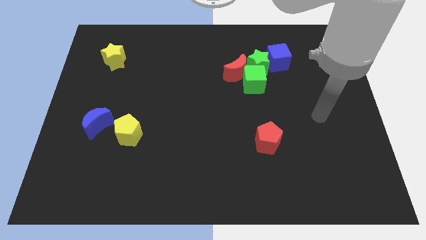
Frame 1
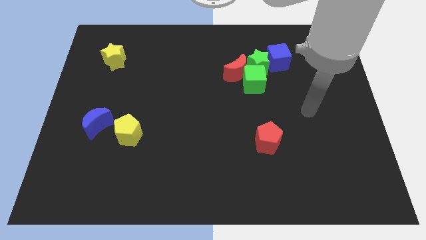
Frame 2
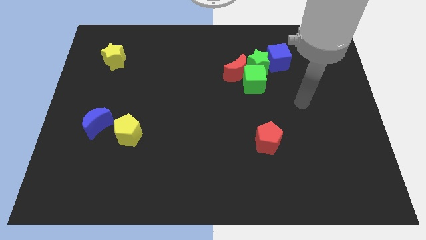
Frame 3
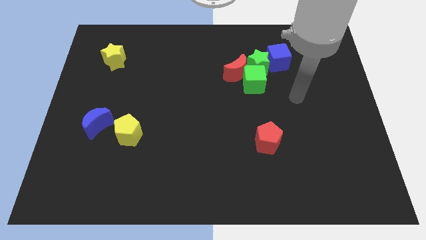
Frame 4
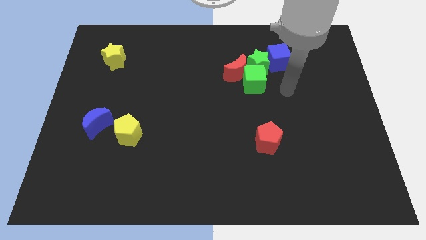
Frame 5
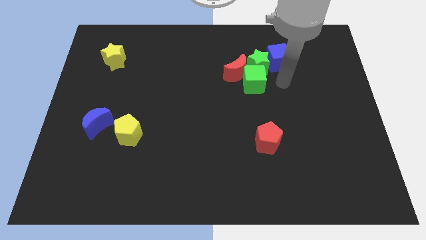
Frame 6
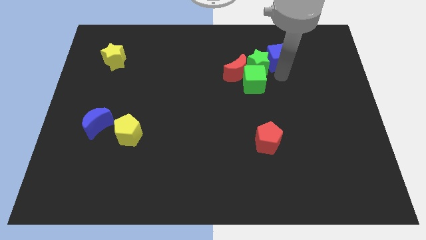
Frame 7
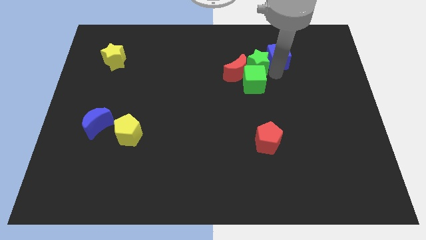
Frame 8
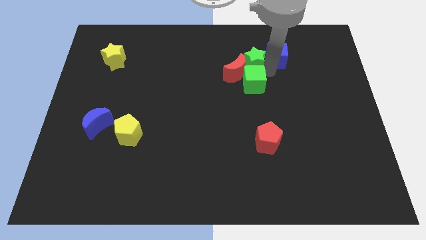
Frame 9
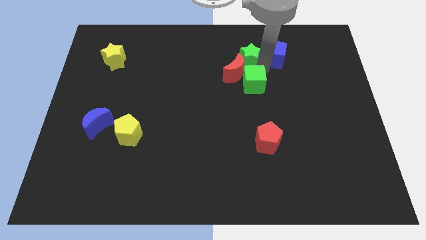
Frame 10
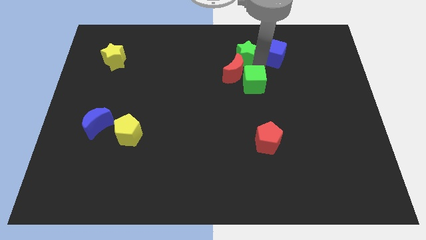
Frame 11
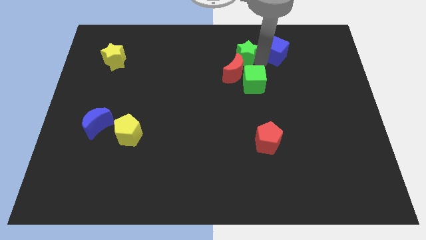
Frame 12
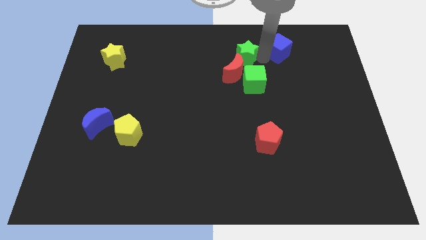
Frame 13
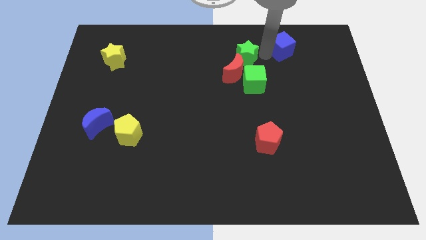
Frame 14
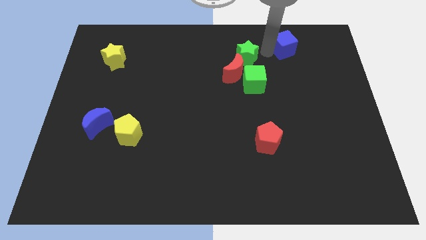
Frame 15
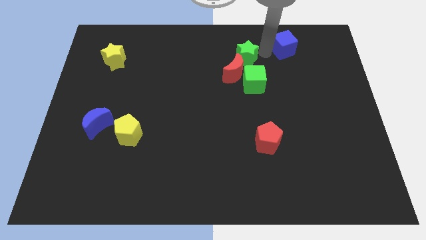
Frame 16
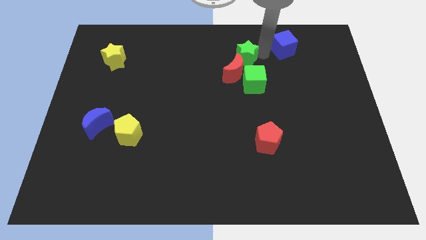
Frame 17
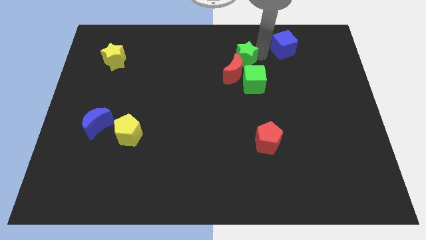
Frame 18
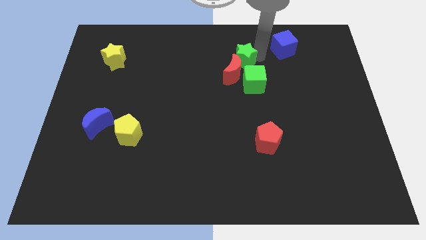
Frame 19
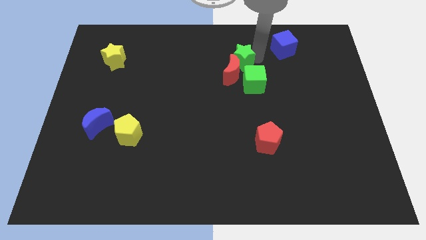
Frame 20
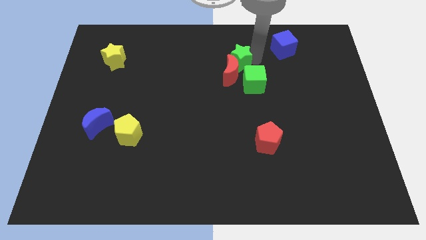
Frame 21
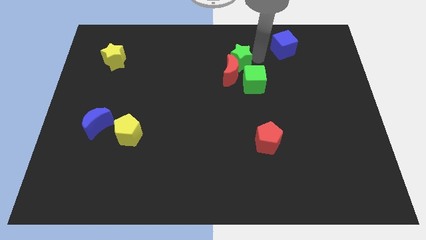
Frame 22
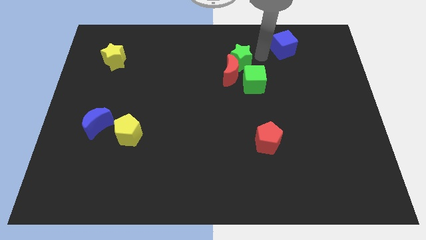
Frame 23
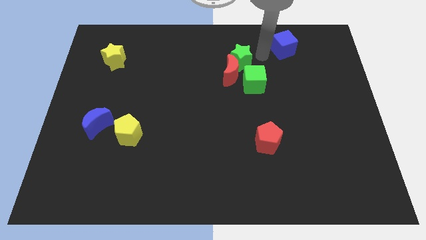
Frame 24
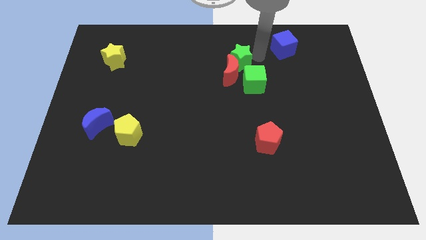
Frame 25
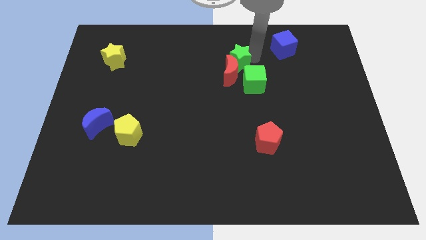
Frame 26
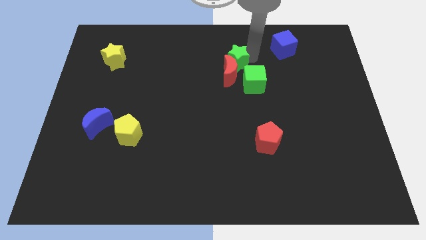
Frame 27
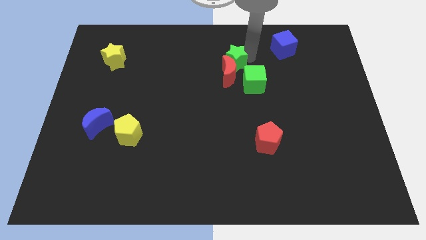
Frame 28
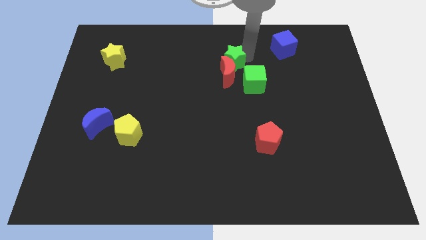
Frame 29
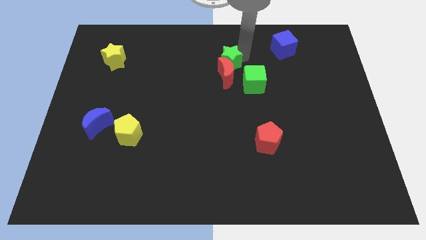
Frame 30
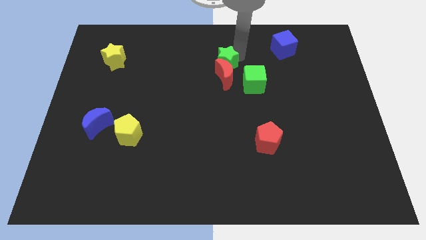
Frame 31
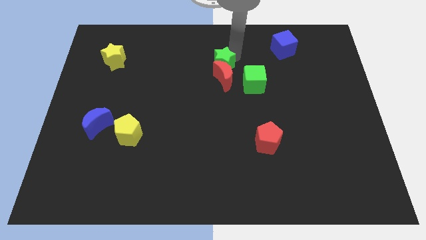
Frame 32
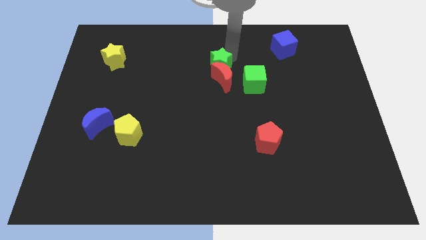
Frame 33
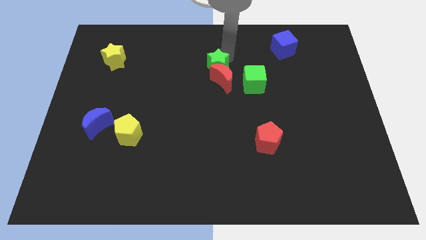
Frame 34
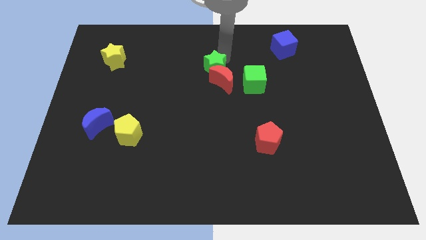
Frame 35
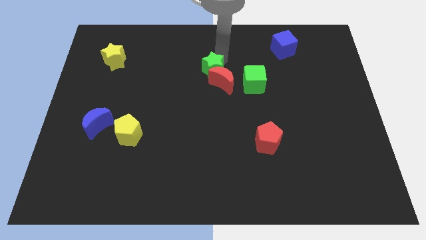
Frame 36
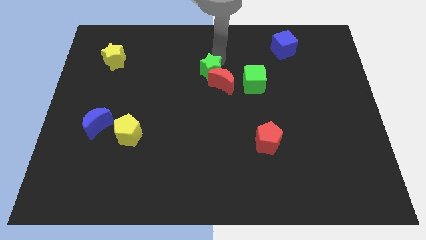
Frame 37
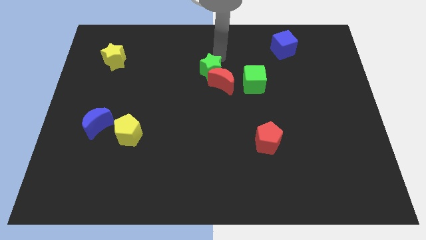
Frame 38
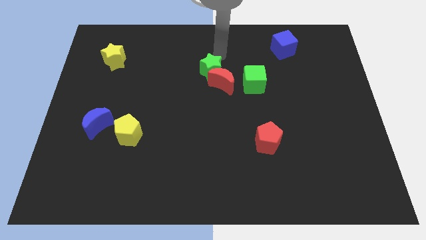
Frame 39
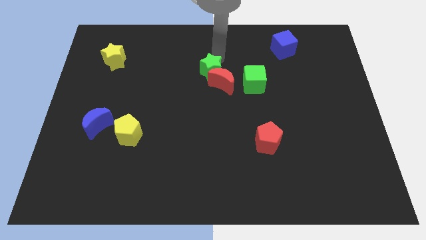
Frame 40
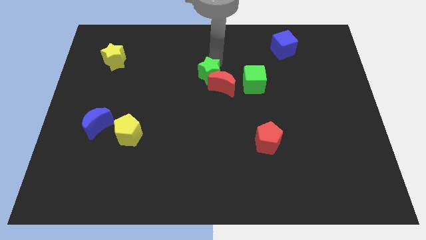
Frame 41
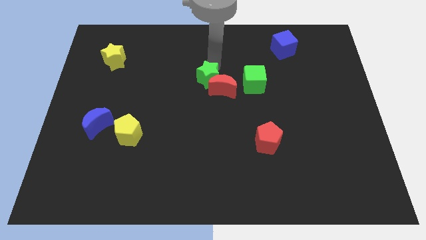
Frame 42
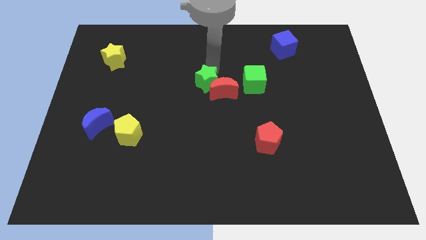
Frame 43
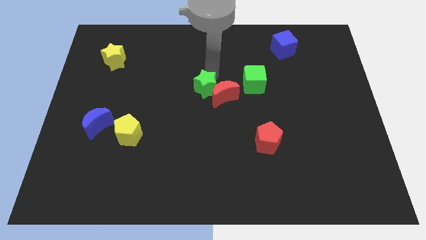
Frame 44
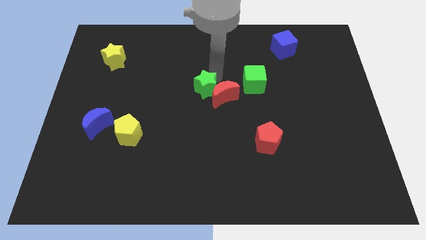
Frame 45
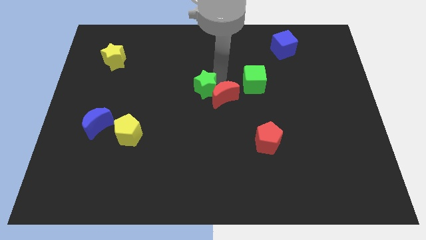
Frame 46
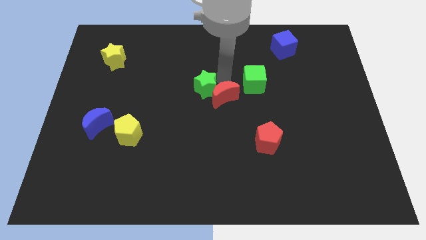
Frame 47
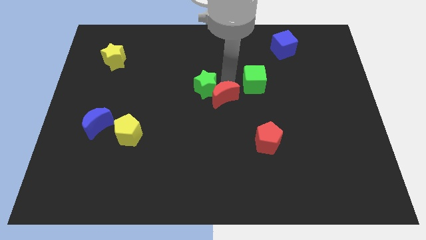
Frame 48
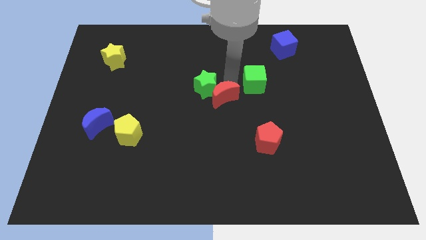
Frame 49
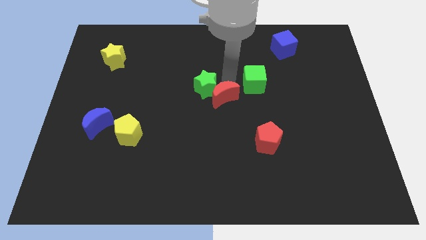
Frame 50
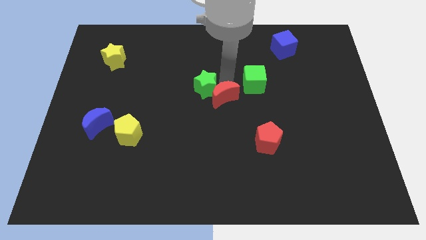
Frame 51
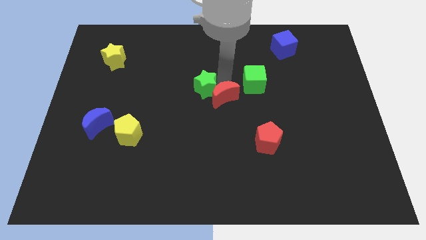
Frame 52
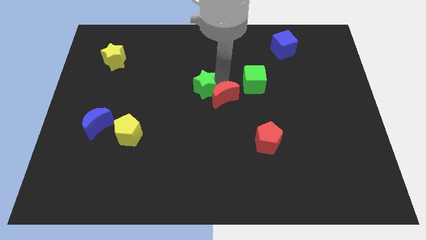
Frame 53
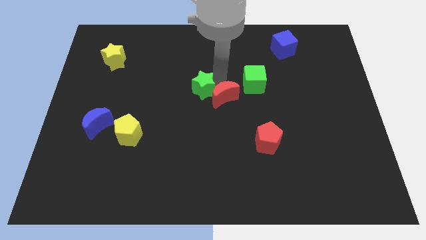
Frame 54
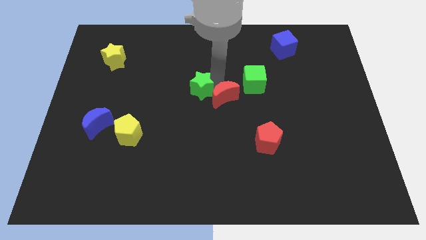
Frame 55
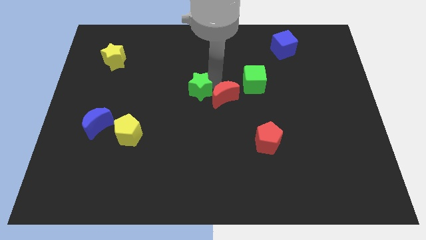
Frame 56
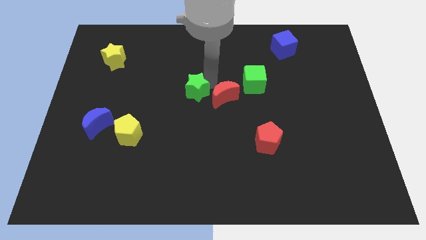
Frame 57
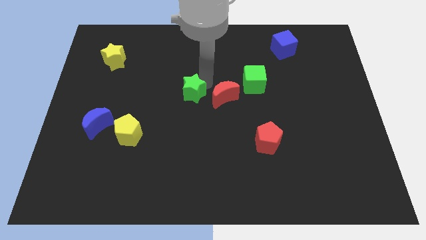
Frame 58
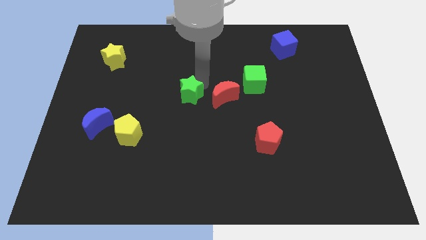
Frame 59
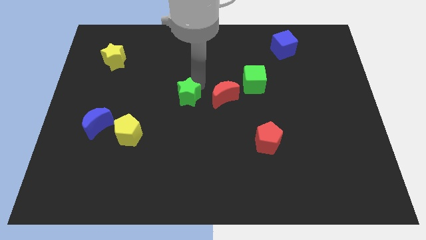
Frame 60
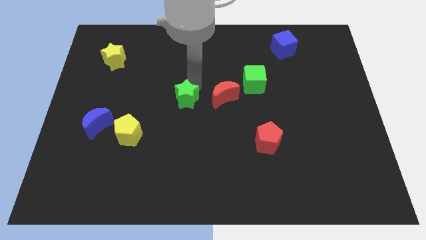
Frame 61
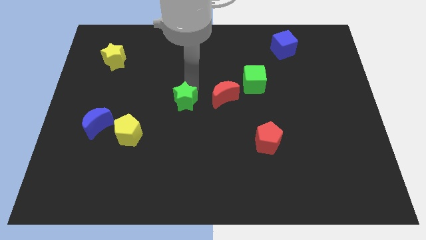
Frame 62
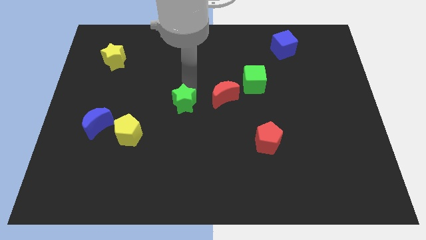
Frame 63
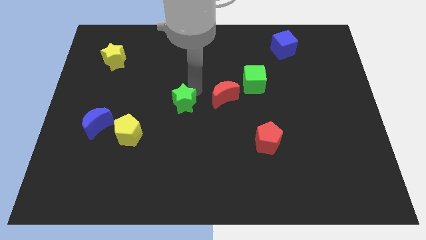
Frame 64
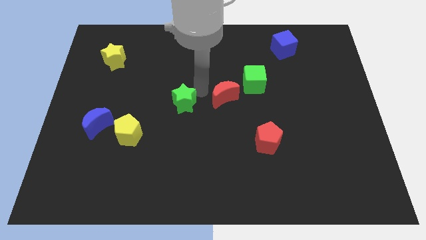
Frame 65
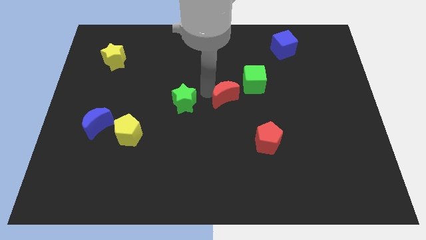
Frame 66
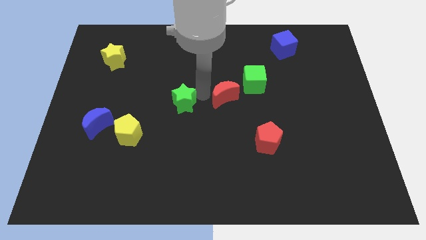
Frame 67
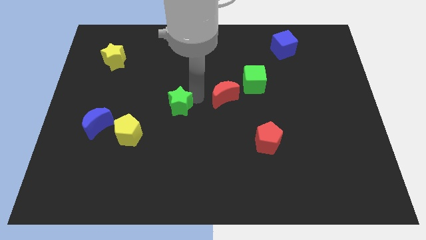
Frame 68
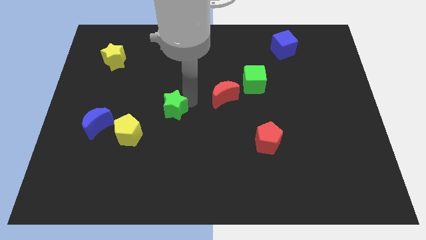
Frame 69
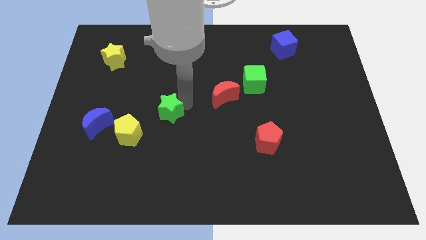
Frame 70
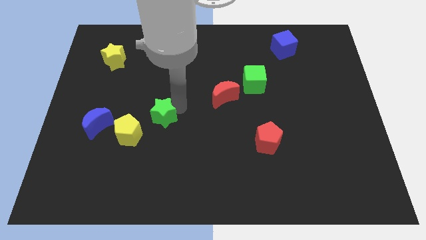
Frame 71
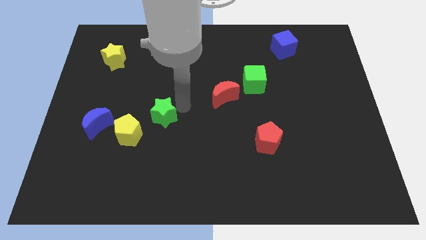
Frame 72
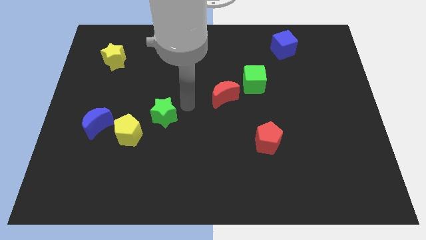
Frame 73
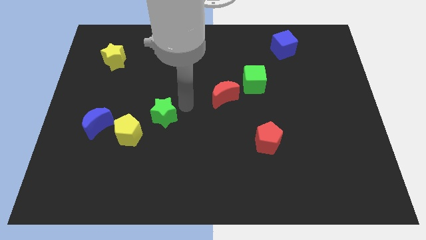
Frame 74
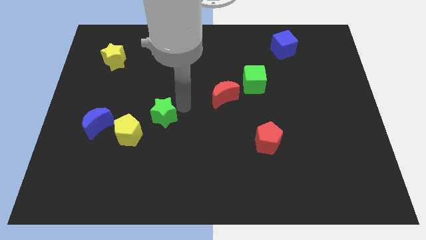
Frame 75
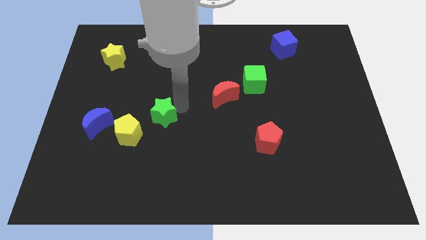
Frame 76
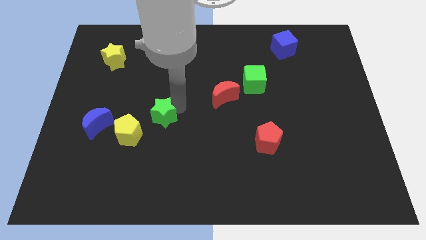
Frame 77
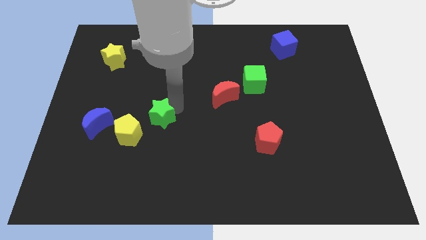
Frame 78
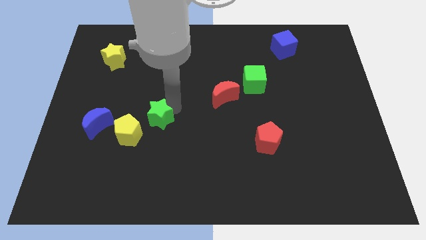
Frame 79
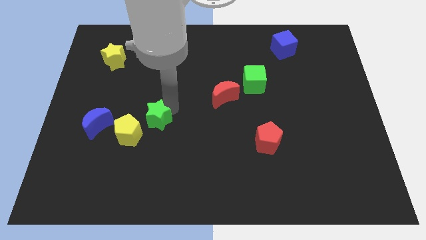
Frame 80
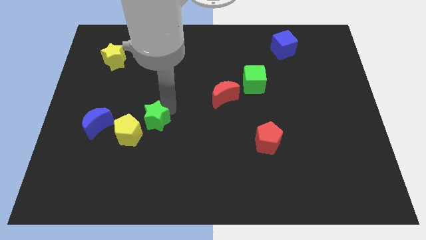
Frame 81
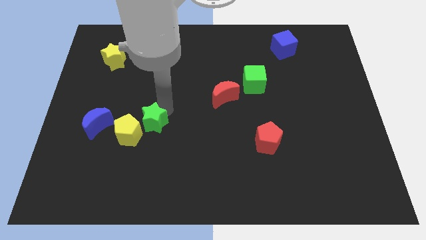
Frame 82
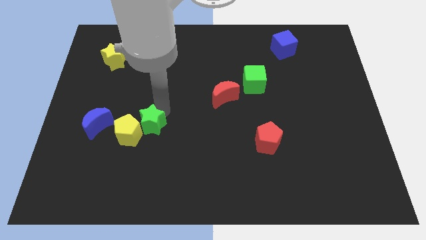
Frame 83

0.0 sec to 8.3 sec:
put the green star next to the yellow pentagon
